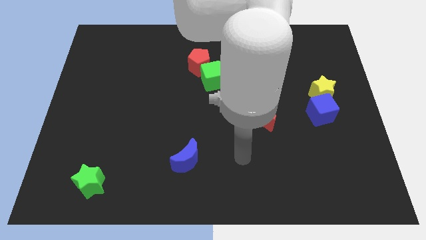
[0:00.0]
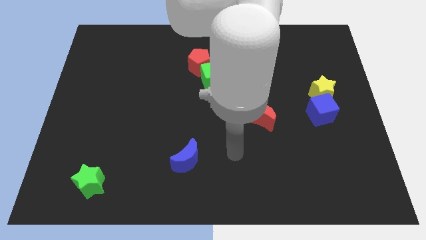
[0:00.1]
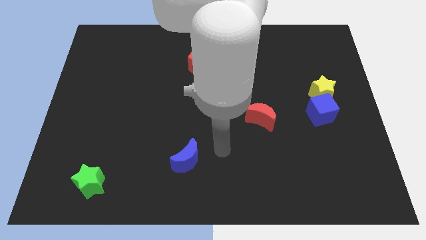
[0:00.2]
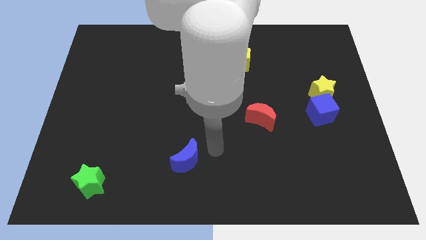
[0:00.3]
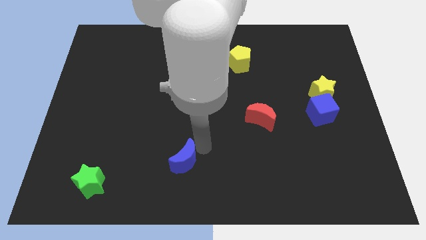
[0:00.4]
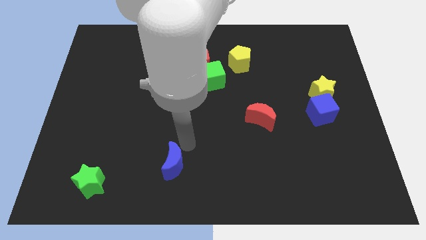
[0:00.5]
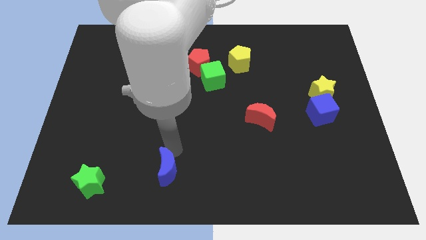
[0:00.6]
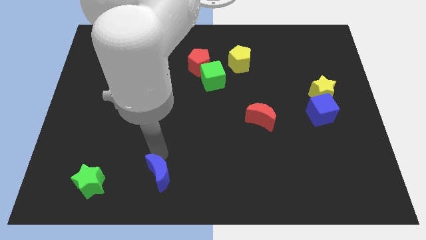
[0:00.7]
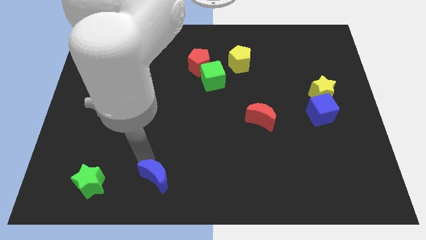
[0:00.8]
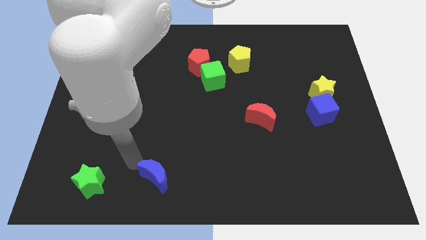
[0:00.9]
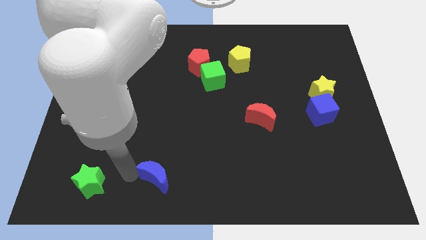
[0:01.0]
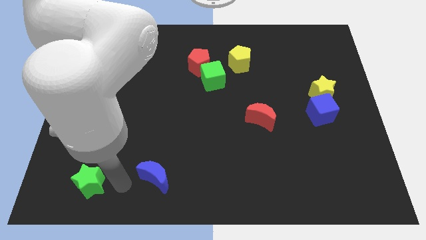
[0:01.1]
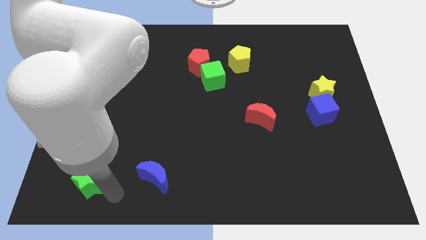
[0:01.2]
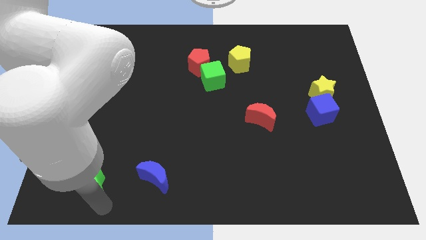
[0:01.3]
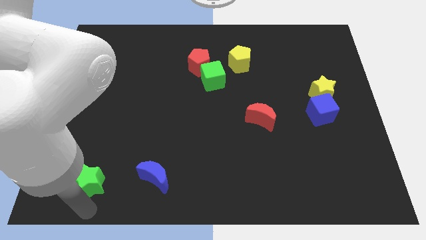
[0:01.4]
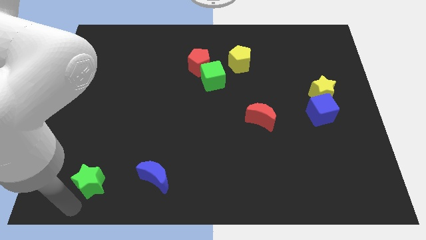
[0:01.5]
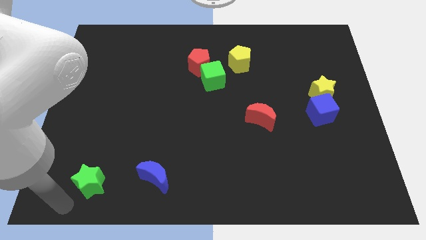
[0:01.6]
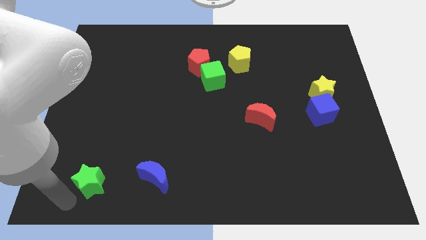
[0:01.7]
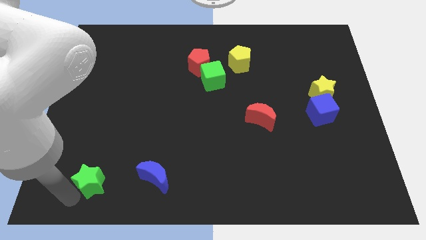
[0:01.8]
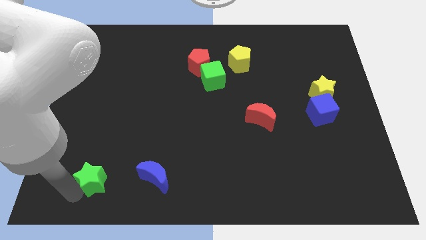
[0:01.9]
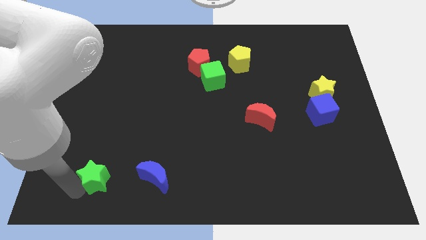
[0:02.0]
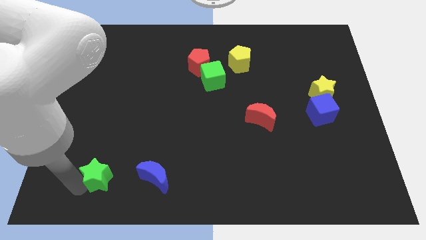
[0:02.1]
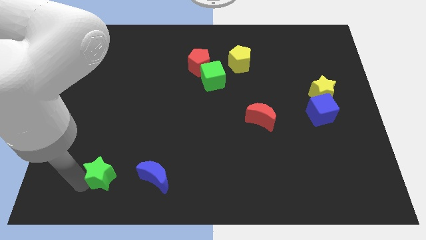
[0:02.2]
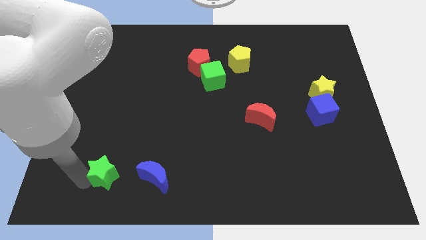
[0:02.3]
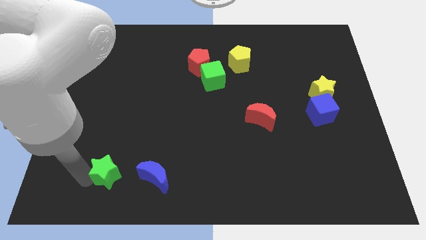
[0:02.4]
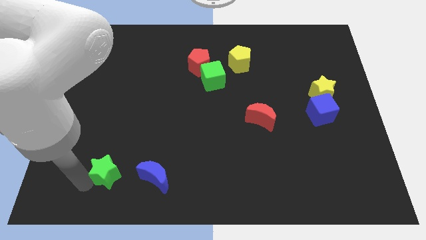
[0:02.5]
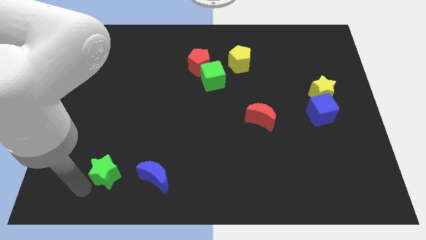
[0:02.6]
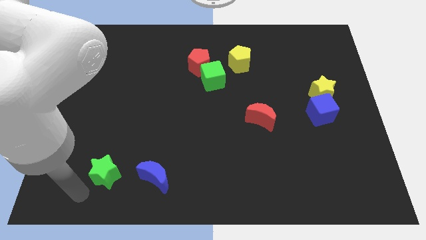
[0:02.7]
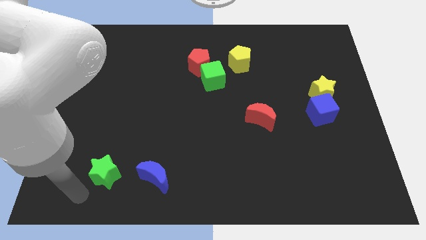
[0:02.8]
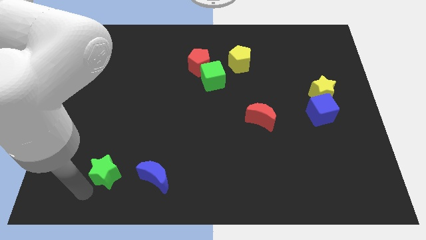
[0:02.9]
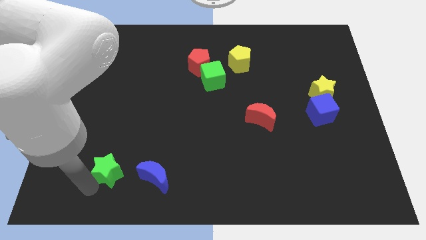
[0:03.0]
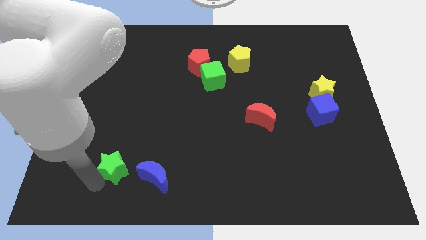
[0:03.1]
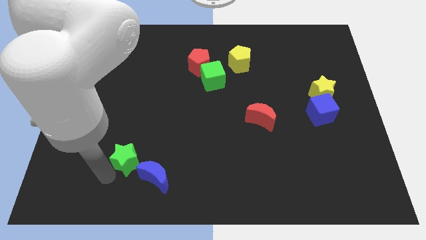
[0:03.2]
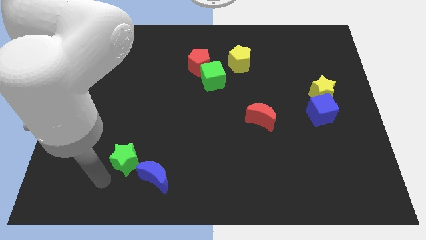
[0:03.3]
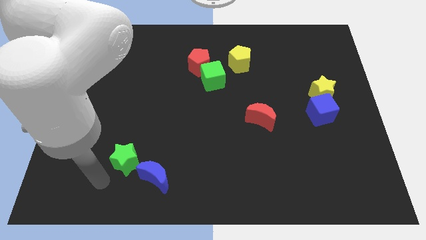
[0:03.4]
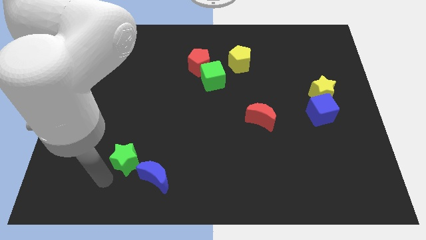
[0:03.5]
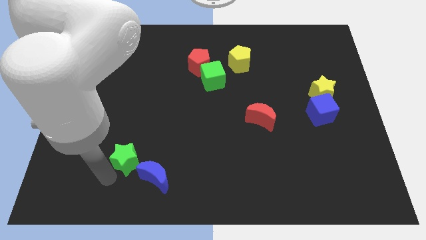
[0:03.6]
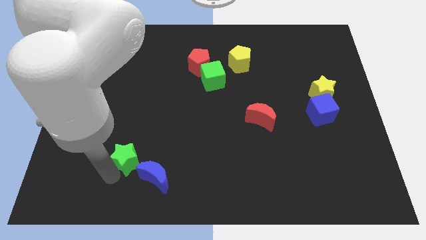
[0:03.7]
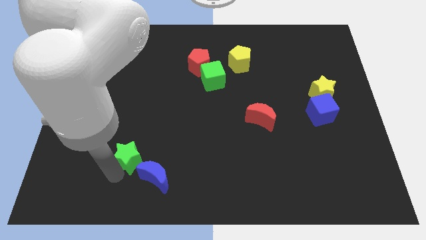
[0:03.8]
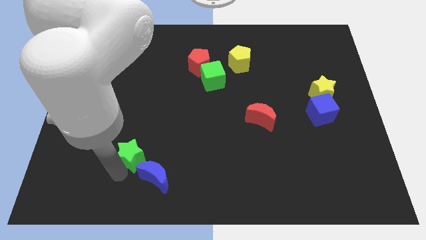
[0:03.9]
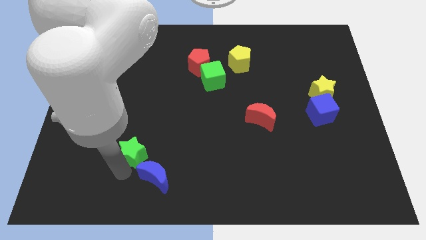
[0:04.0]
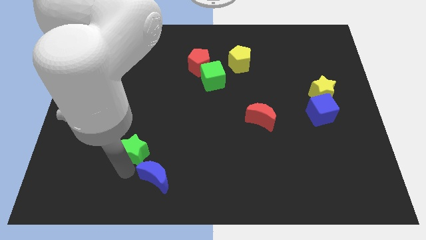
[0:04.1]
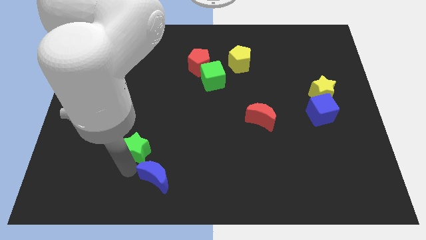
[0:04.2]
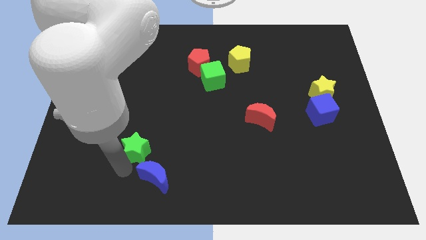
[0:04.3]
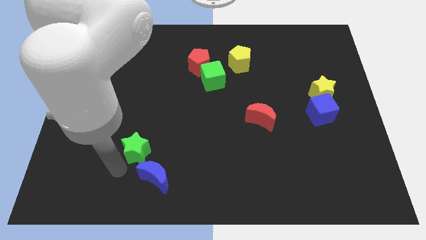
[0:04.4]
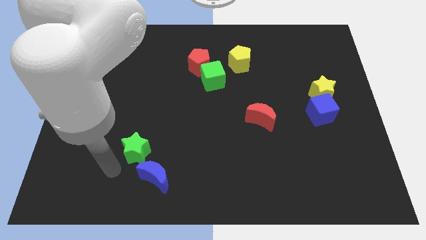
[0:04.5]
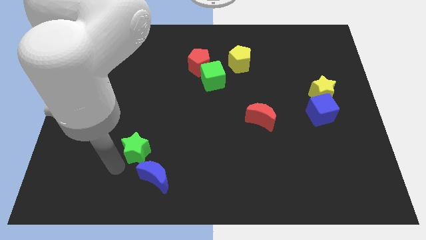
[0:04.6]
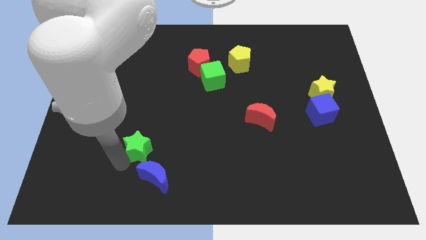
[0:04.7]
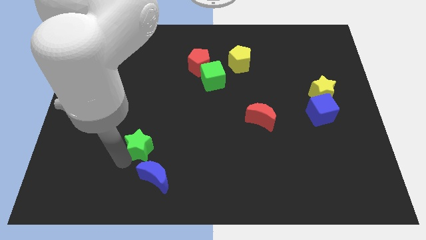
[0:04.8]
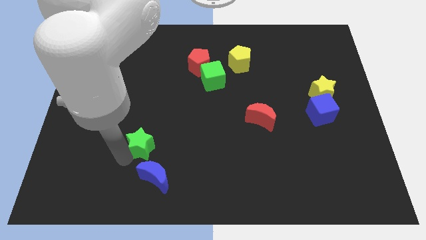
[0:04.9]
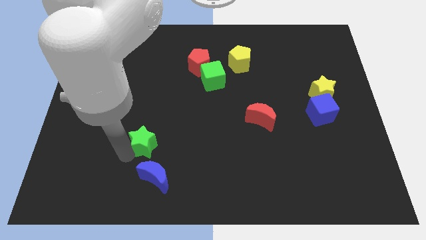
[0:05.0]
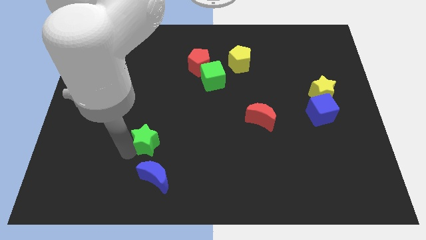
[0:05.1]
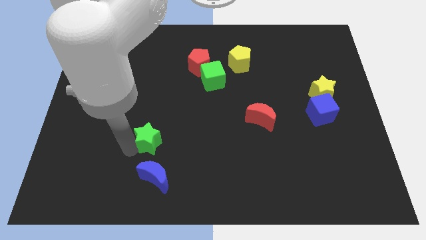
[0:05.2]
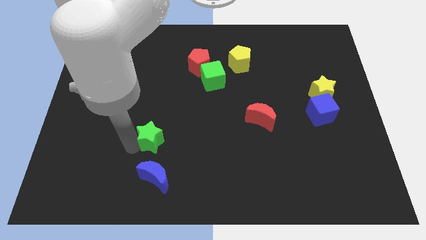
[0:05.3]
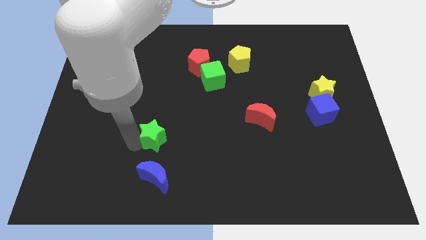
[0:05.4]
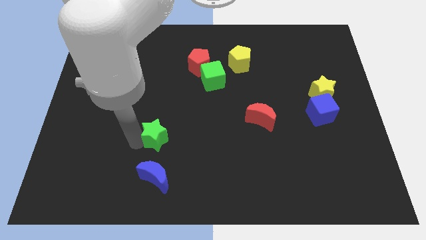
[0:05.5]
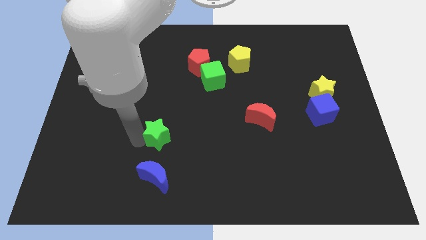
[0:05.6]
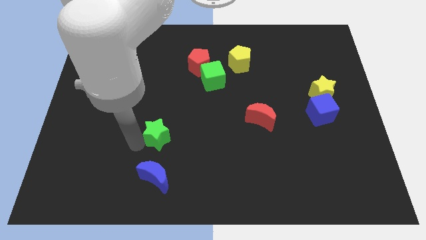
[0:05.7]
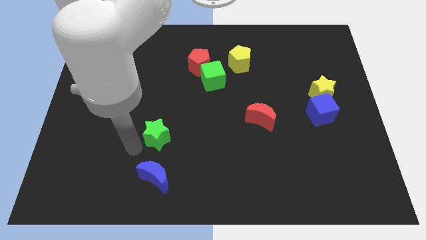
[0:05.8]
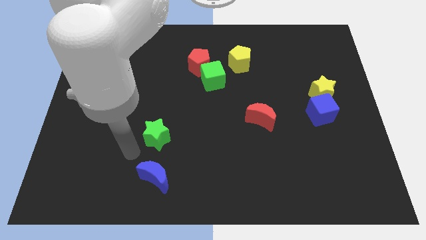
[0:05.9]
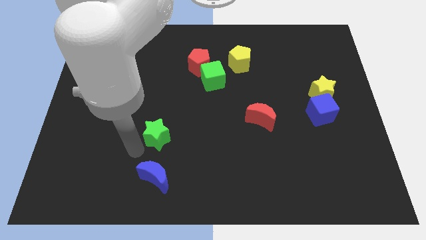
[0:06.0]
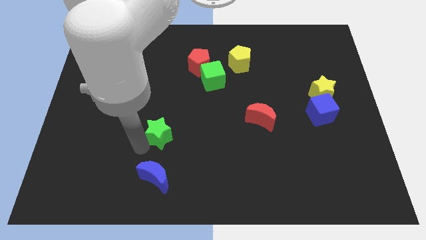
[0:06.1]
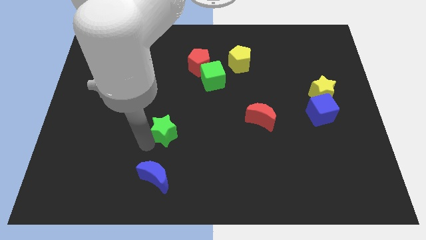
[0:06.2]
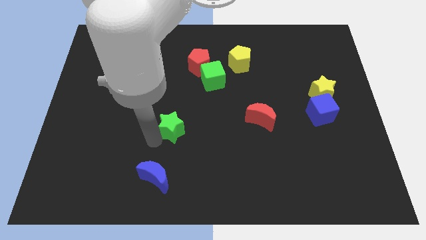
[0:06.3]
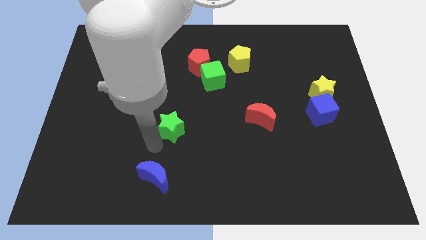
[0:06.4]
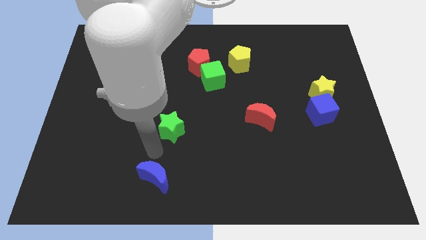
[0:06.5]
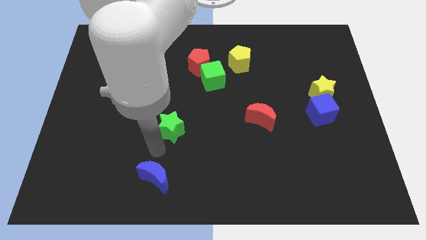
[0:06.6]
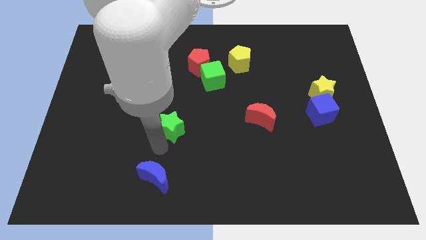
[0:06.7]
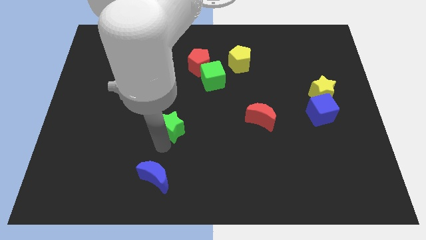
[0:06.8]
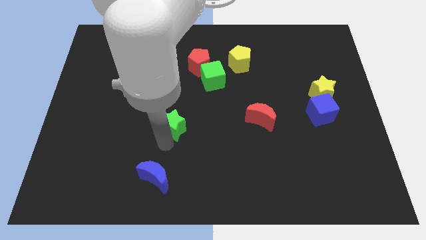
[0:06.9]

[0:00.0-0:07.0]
slide the green star to the middle of the board
